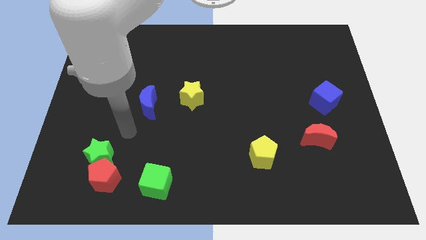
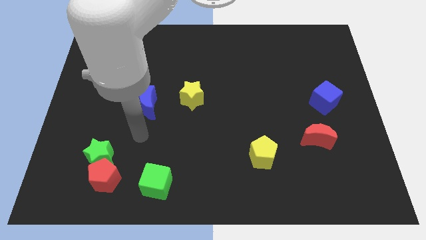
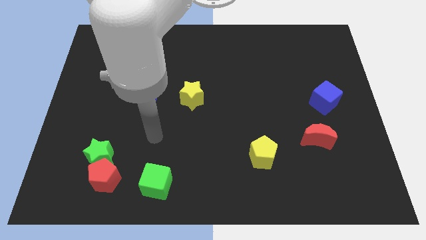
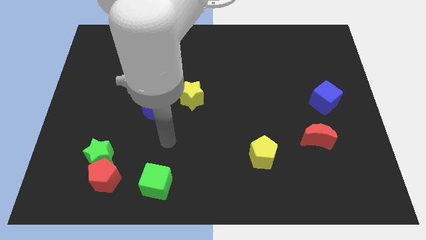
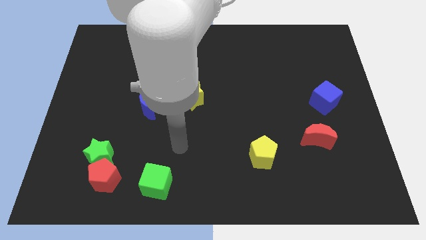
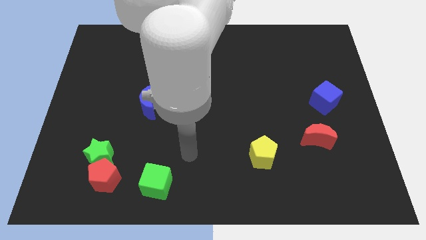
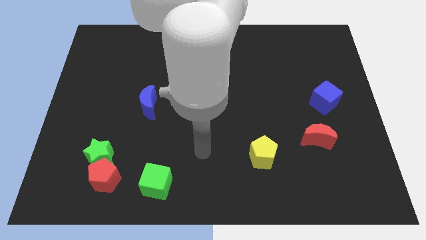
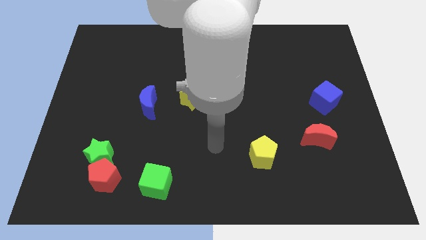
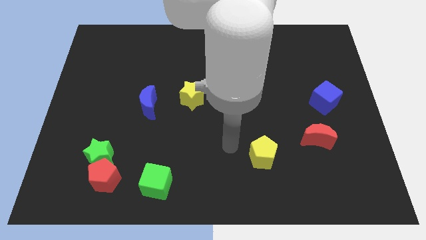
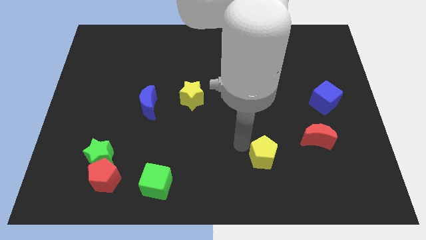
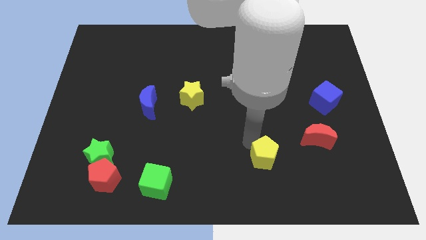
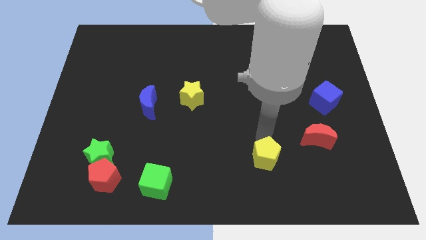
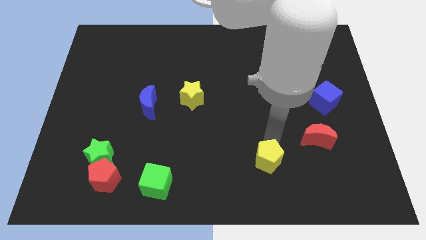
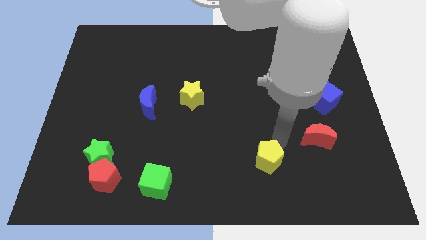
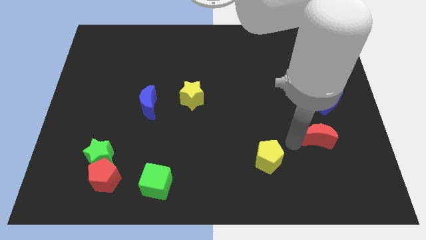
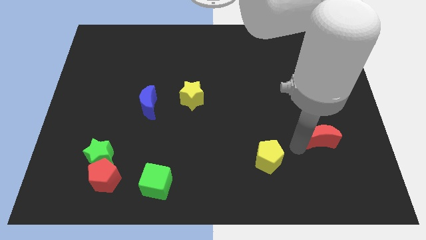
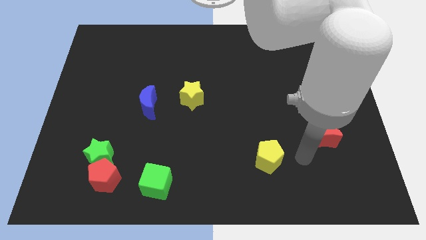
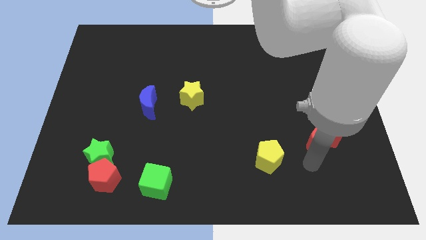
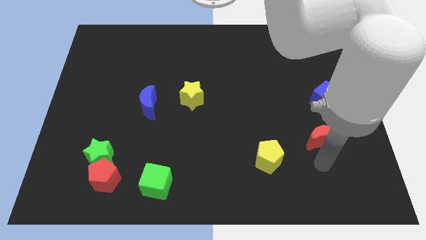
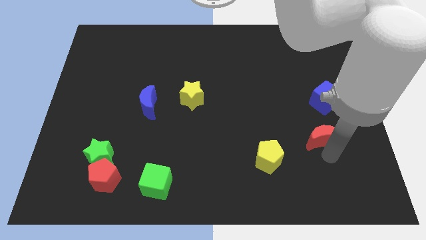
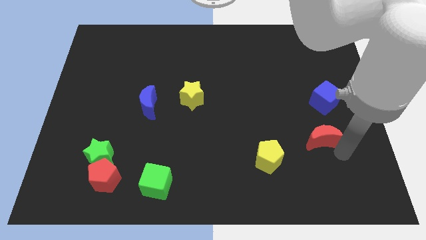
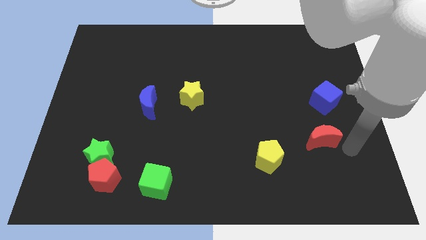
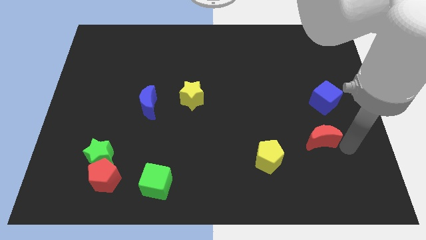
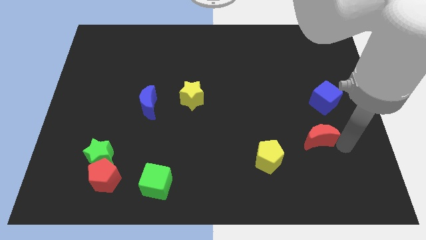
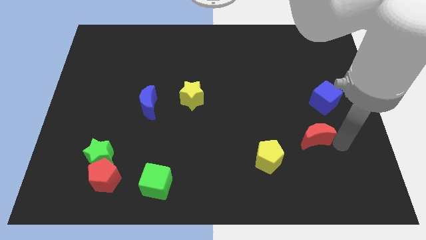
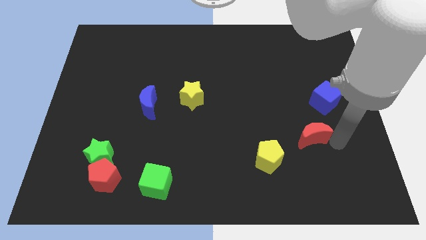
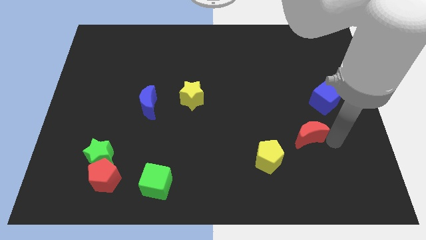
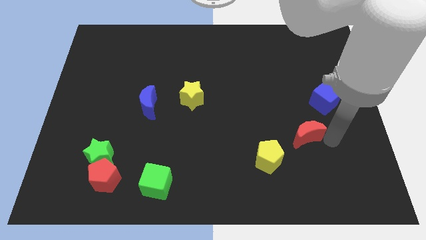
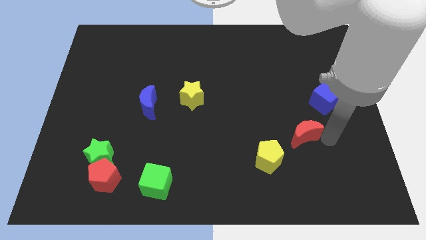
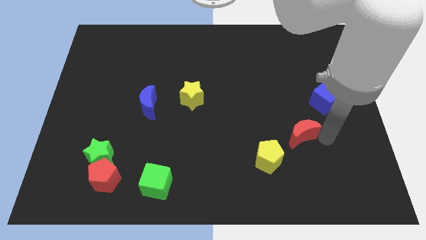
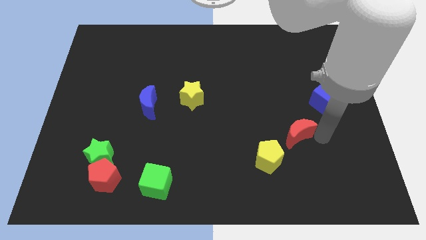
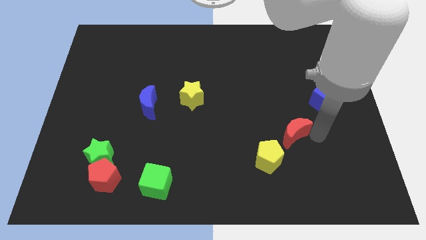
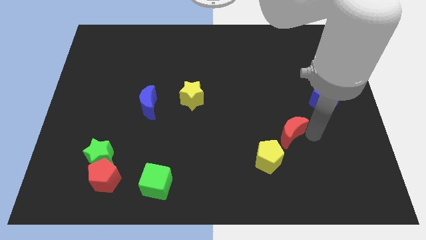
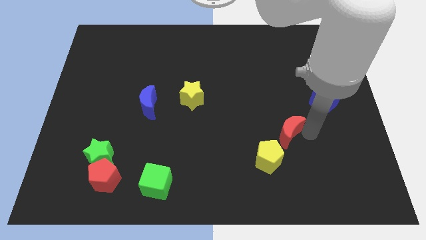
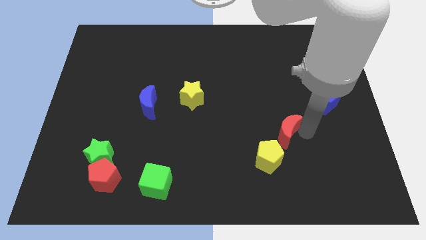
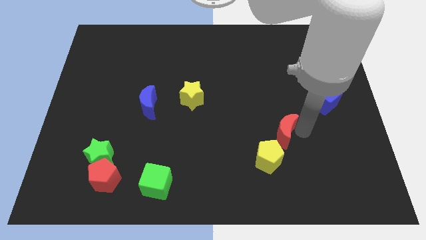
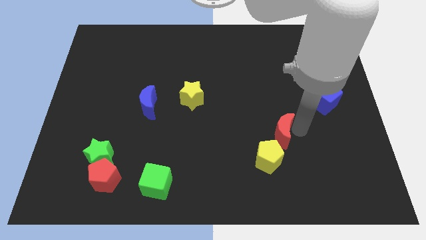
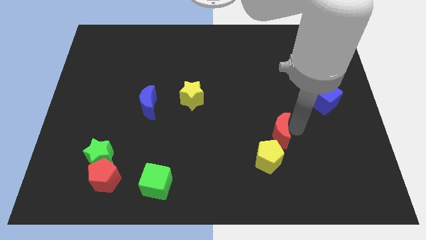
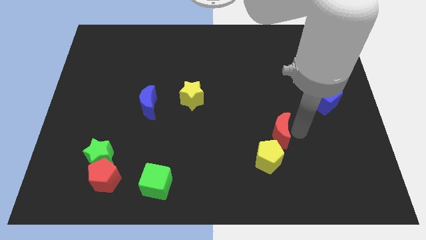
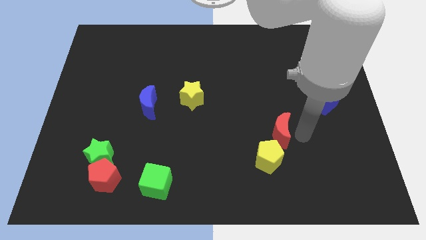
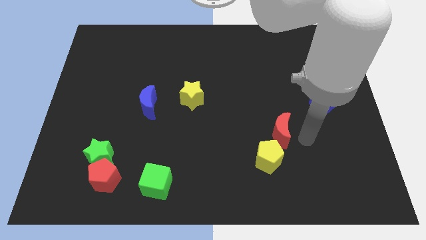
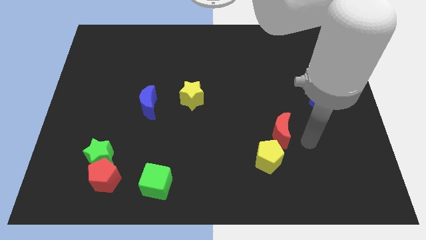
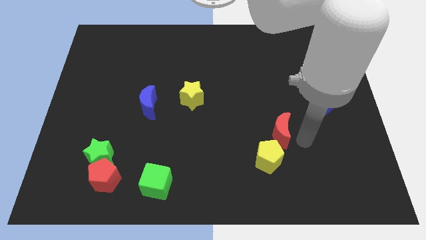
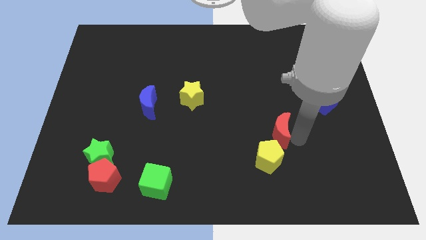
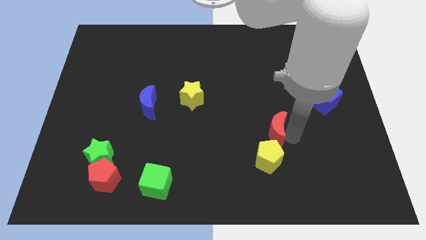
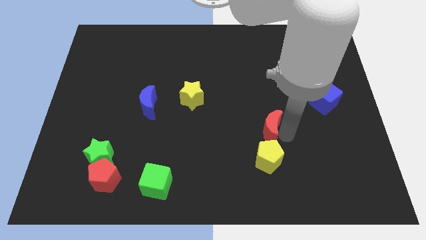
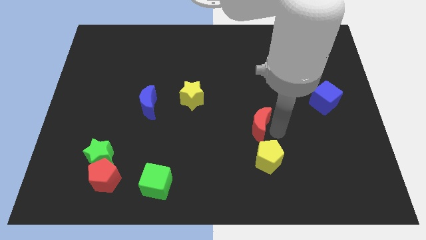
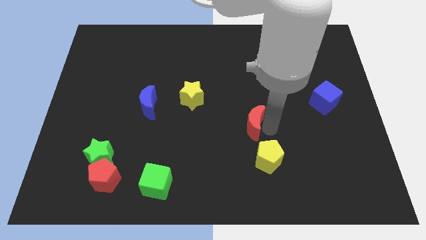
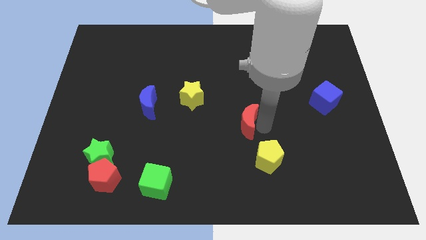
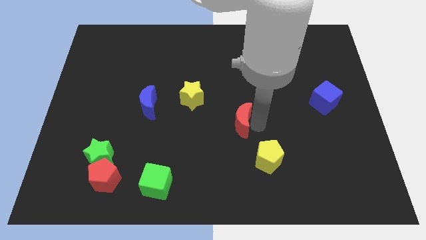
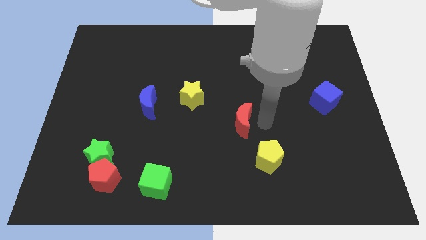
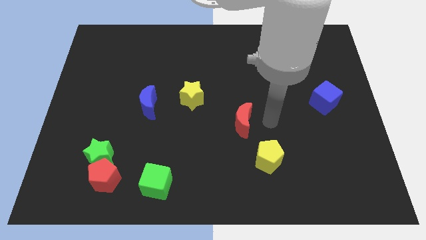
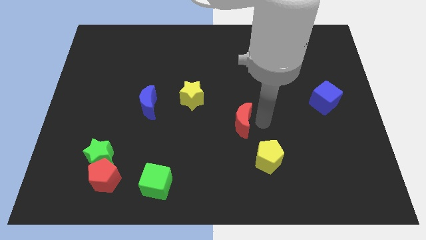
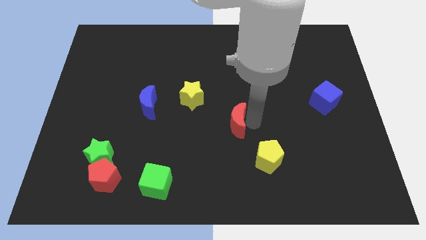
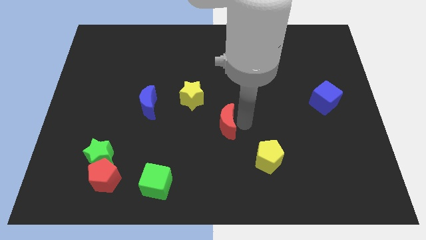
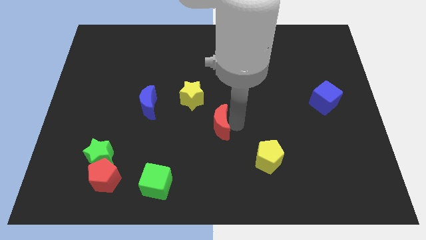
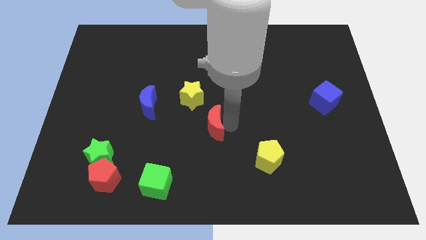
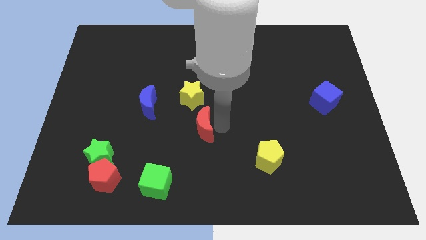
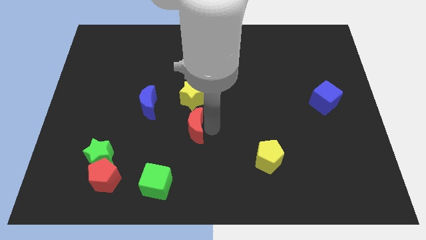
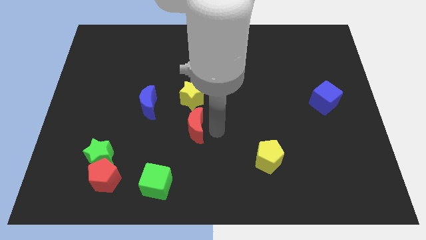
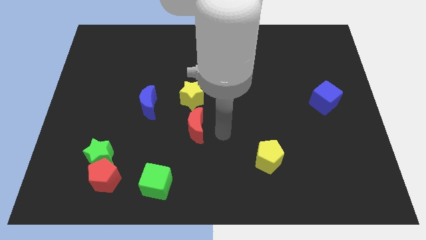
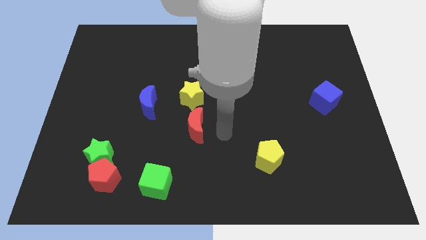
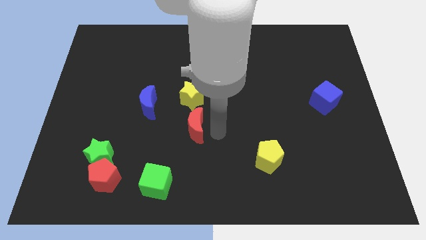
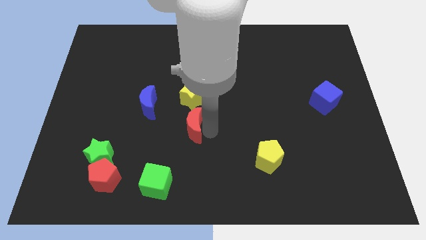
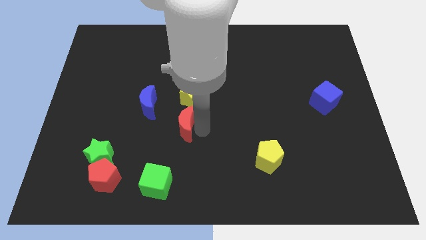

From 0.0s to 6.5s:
move the red moon to the bottom right side of the blue moon
